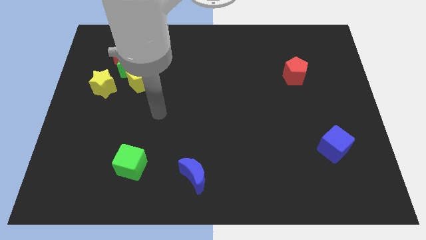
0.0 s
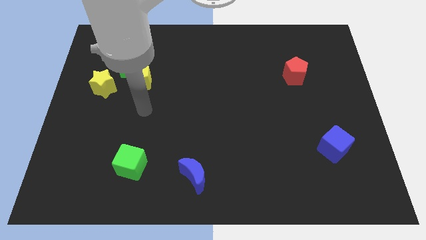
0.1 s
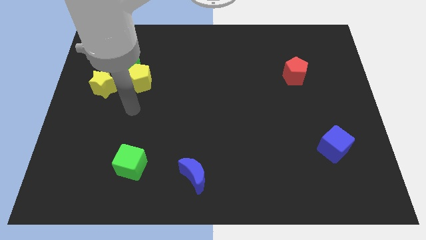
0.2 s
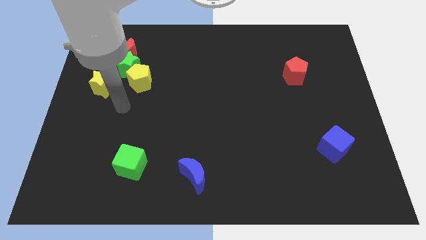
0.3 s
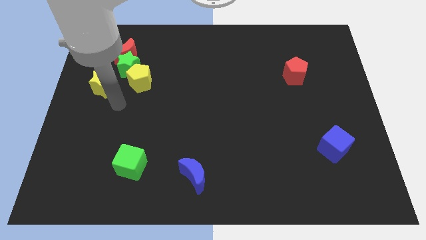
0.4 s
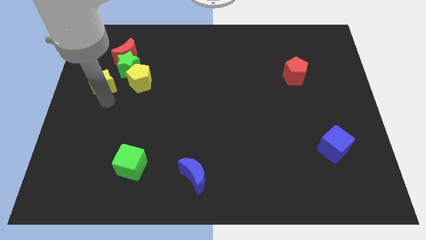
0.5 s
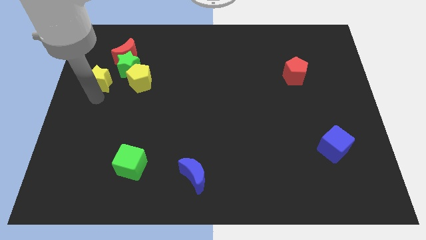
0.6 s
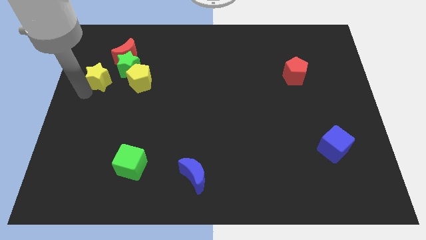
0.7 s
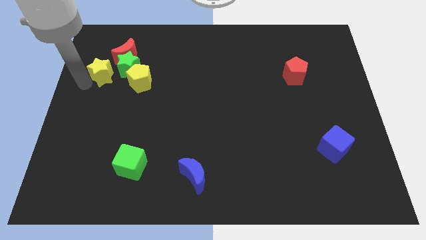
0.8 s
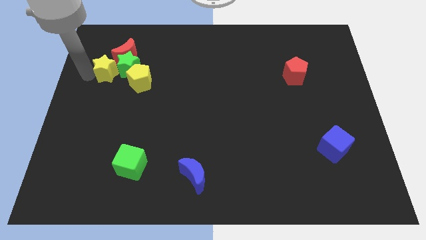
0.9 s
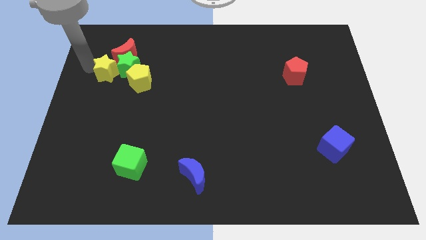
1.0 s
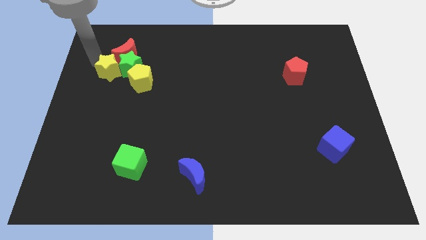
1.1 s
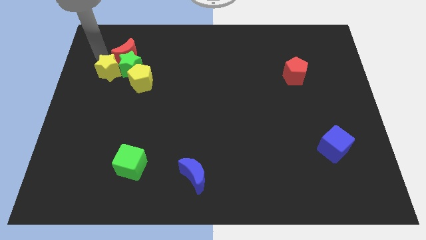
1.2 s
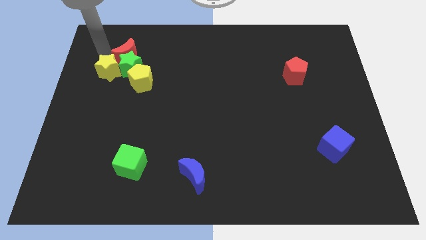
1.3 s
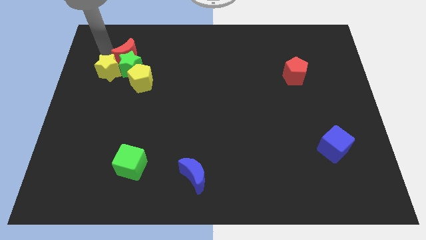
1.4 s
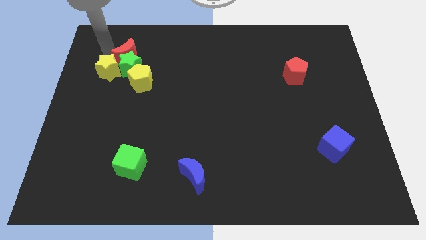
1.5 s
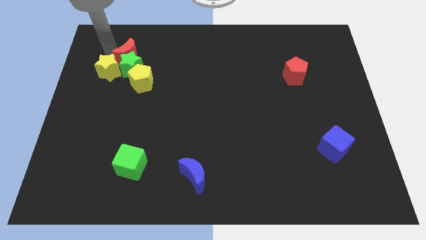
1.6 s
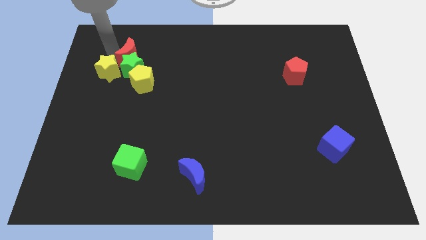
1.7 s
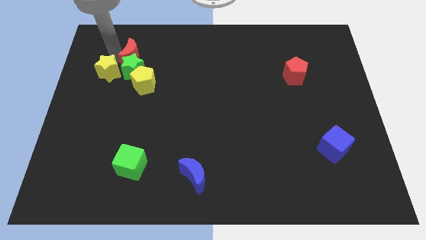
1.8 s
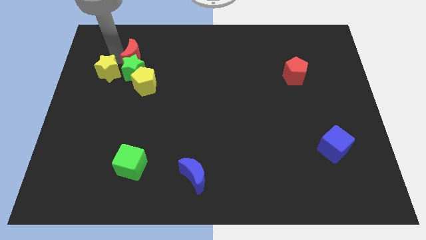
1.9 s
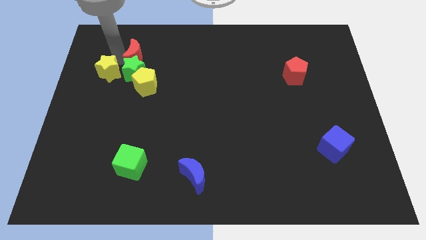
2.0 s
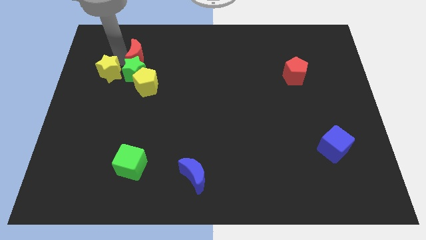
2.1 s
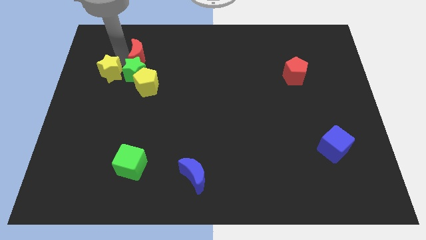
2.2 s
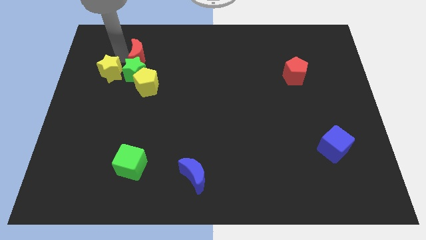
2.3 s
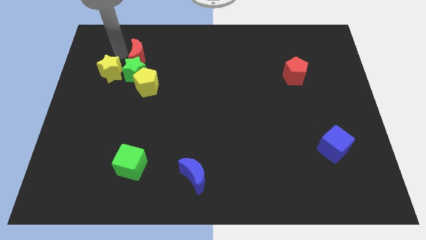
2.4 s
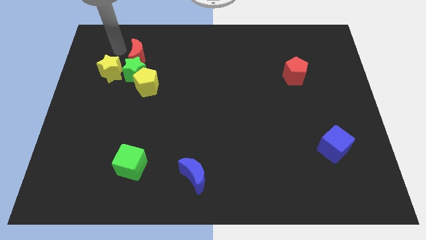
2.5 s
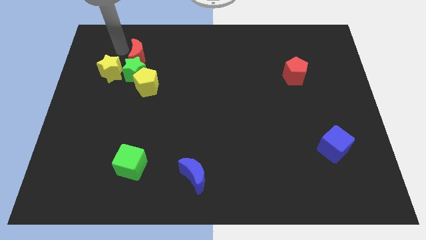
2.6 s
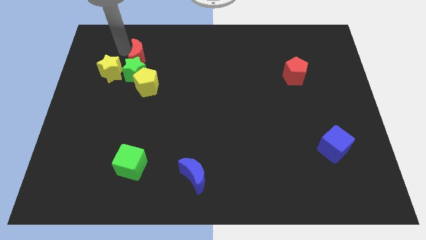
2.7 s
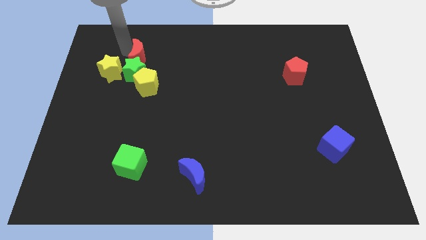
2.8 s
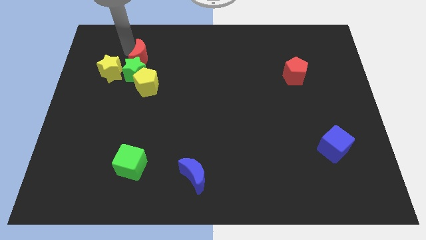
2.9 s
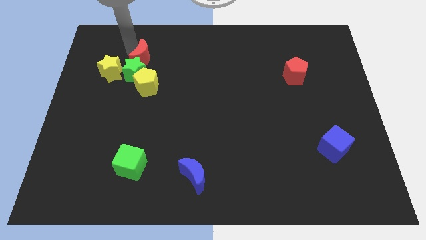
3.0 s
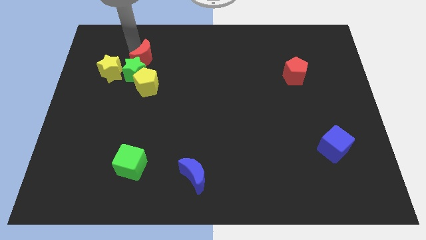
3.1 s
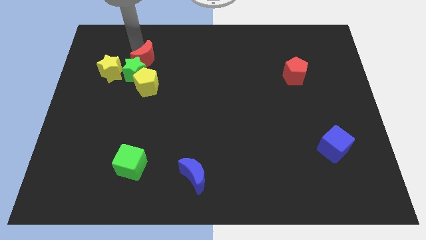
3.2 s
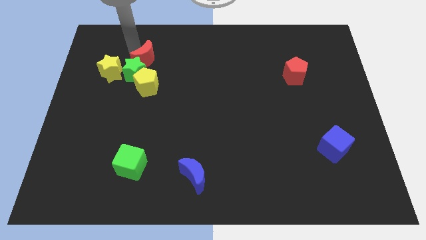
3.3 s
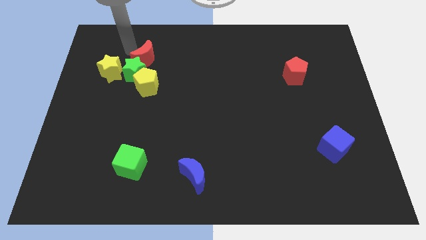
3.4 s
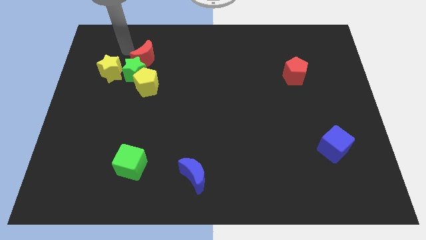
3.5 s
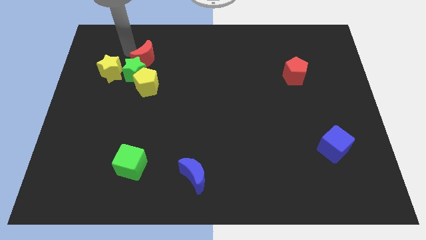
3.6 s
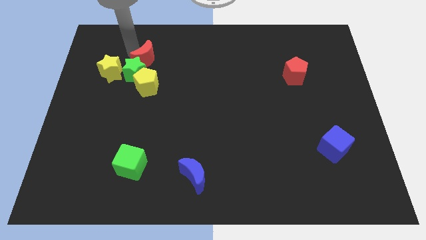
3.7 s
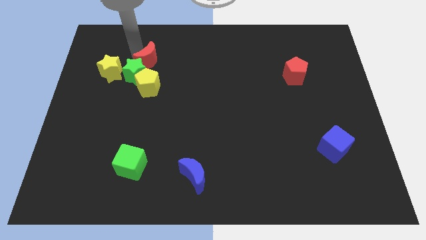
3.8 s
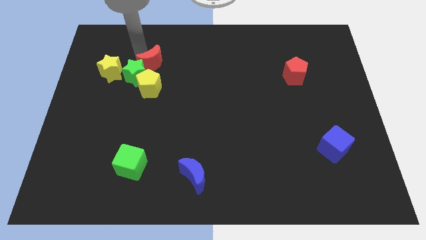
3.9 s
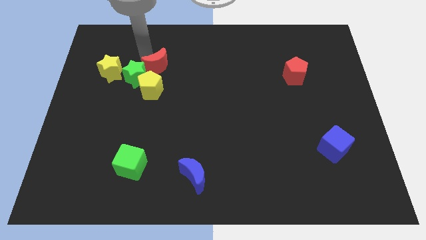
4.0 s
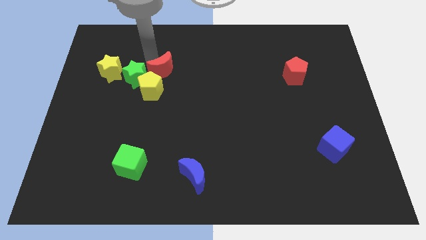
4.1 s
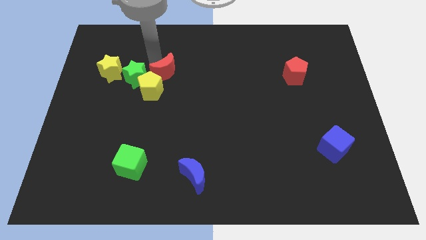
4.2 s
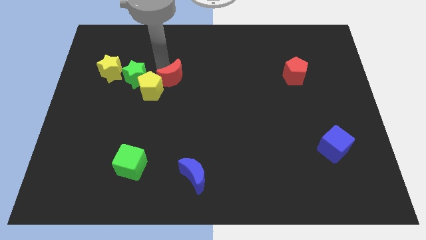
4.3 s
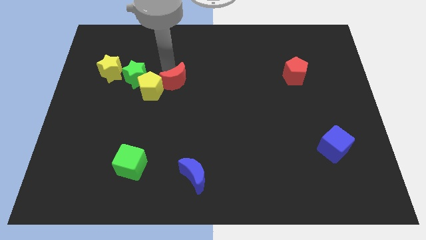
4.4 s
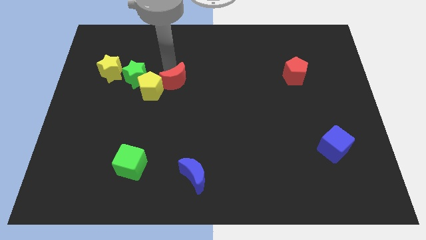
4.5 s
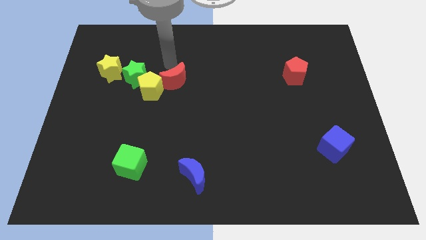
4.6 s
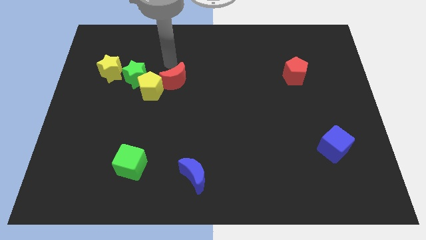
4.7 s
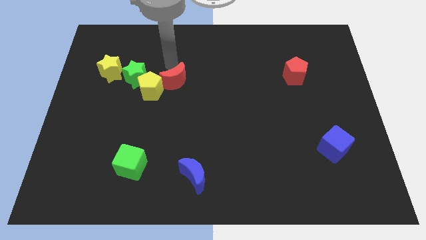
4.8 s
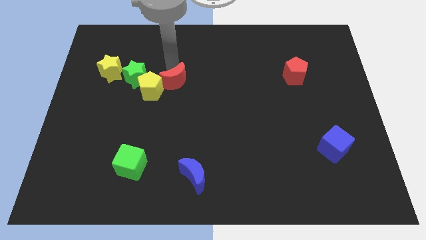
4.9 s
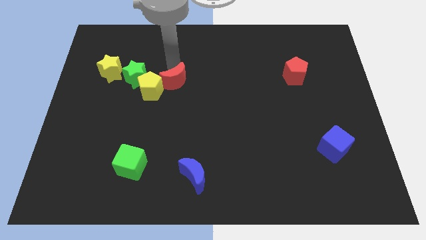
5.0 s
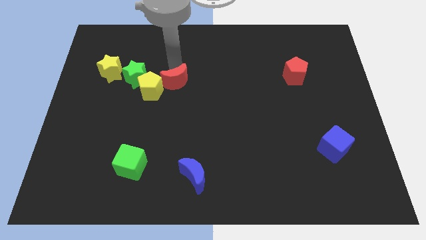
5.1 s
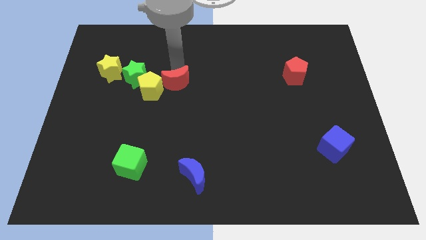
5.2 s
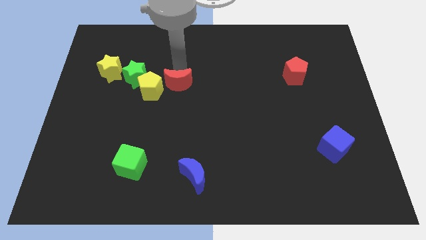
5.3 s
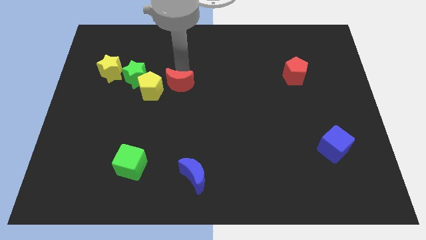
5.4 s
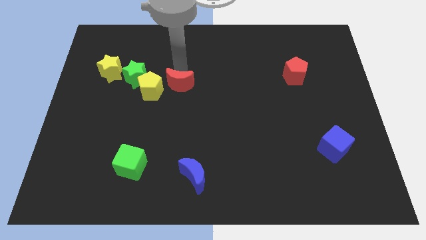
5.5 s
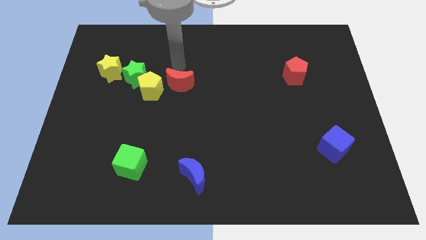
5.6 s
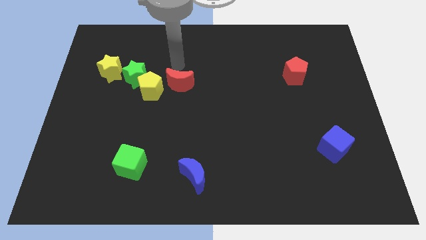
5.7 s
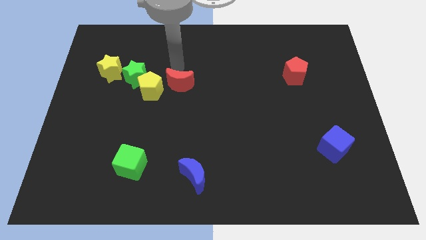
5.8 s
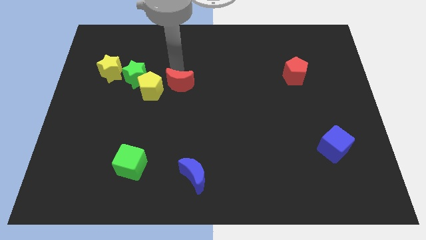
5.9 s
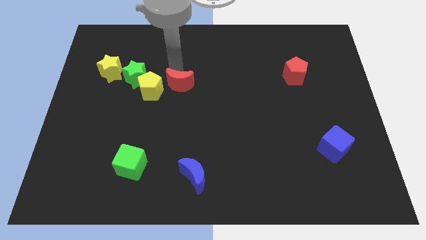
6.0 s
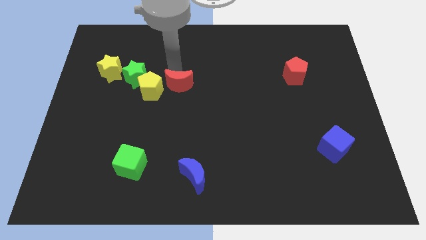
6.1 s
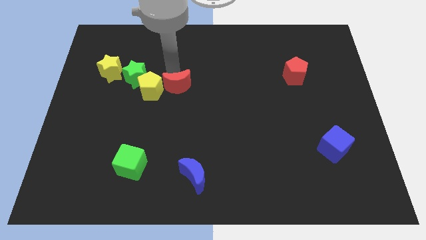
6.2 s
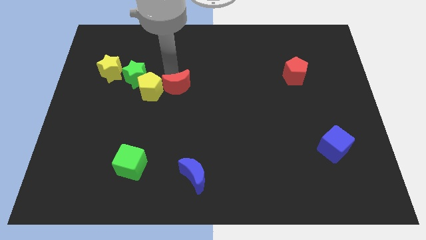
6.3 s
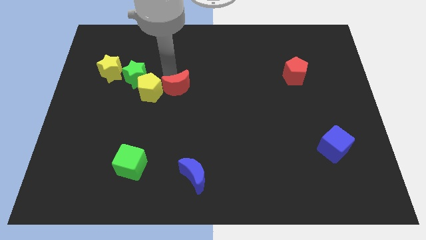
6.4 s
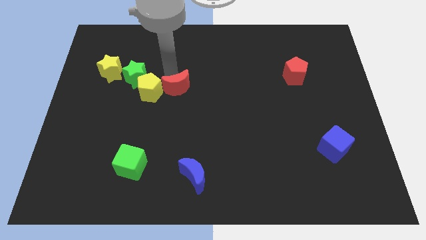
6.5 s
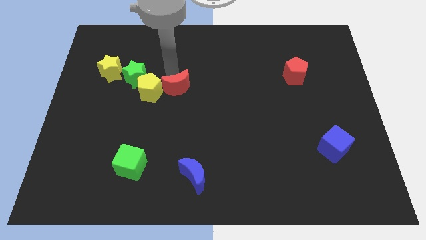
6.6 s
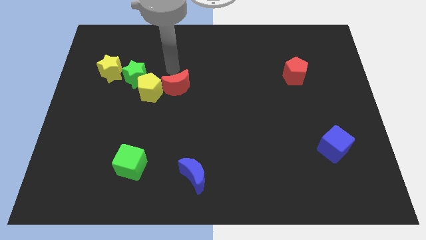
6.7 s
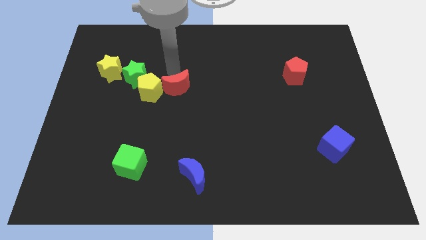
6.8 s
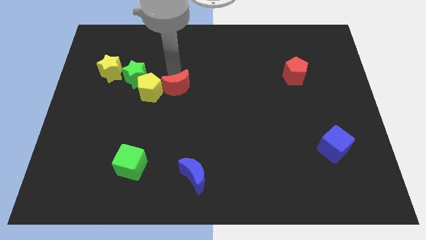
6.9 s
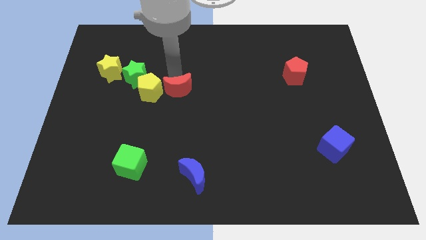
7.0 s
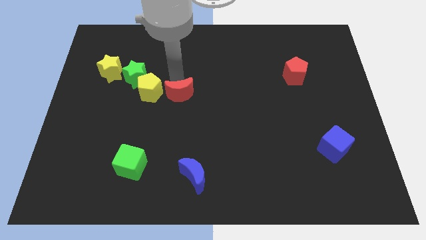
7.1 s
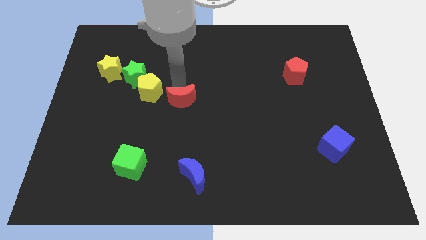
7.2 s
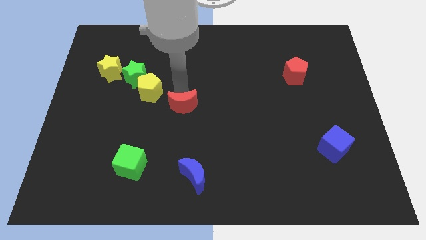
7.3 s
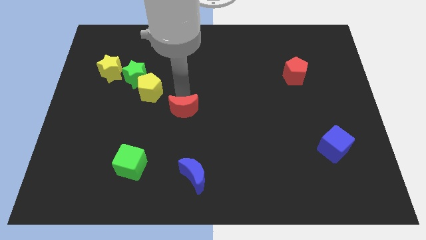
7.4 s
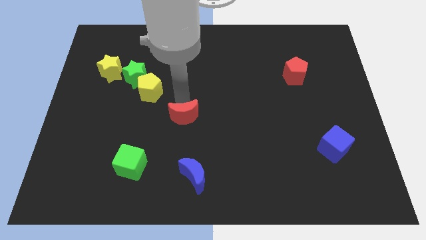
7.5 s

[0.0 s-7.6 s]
push the red moon above the blue moon
